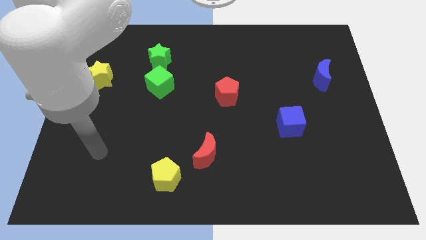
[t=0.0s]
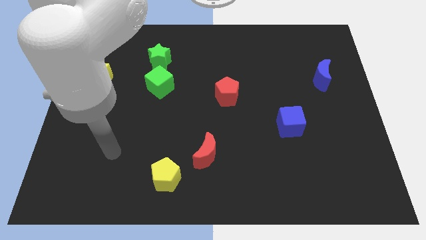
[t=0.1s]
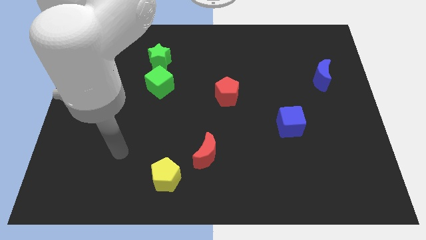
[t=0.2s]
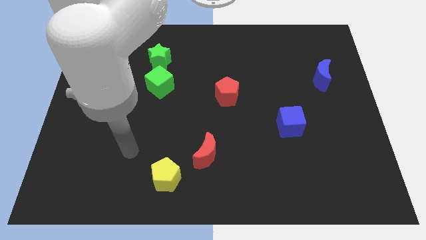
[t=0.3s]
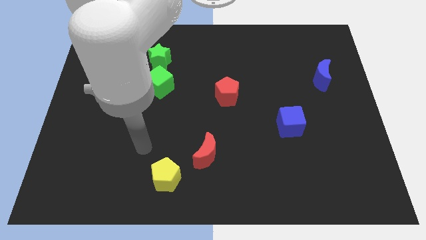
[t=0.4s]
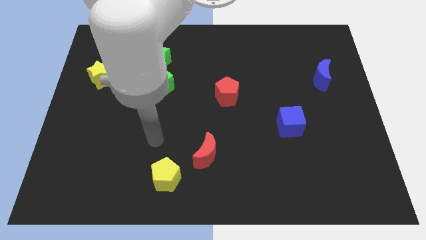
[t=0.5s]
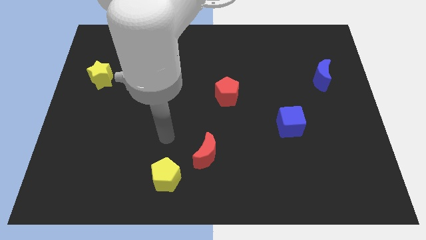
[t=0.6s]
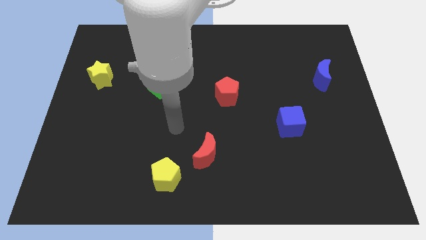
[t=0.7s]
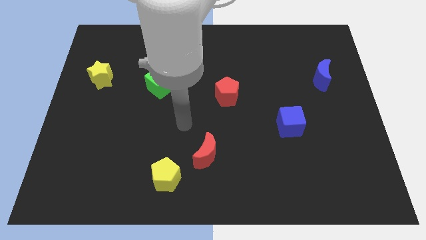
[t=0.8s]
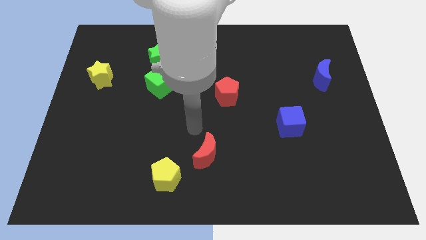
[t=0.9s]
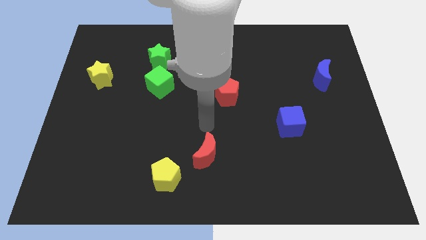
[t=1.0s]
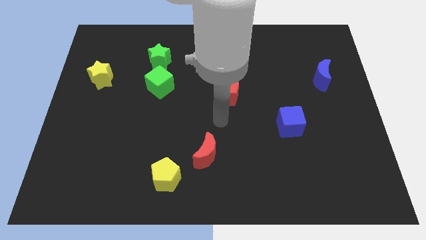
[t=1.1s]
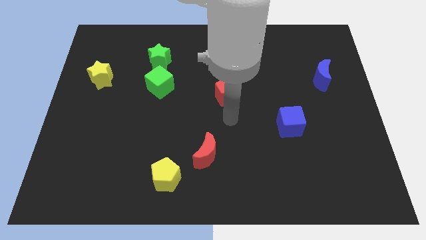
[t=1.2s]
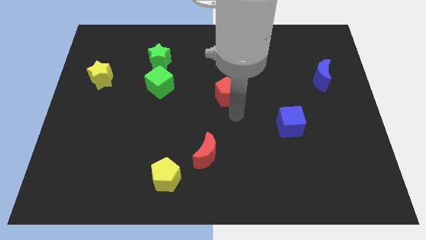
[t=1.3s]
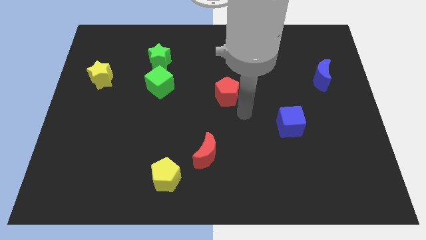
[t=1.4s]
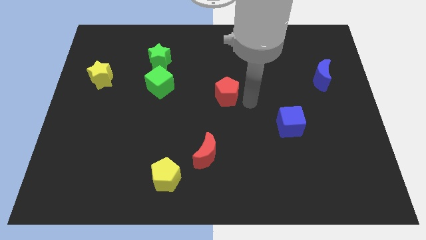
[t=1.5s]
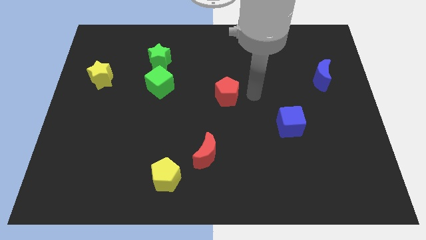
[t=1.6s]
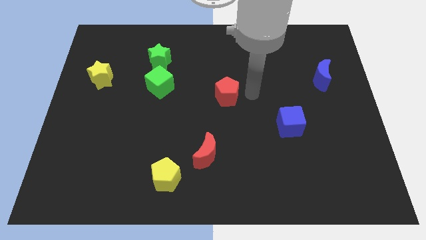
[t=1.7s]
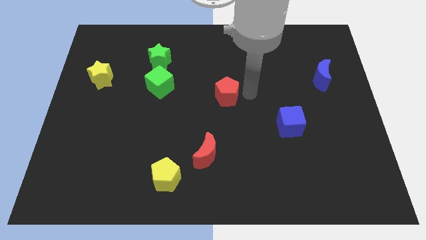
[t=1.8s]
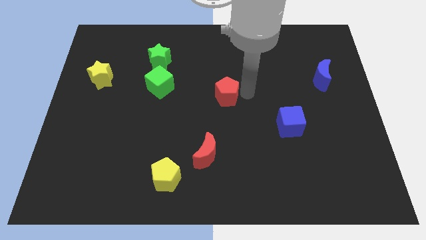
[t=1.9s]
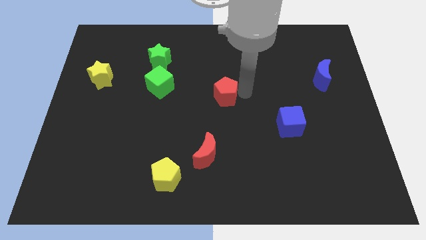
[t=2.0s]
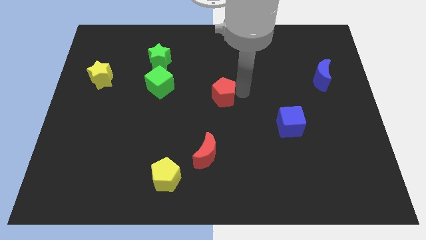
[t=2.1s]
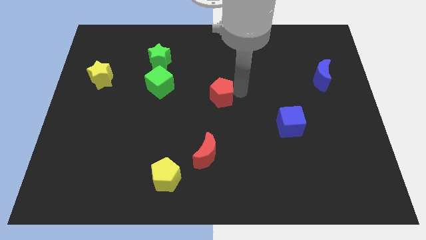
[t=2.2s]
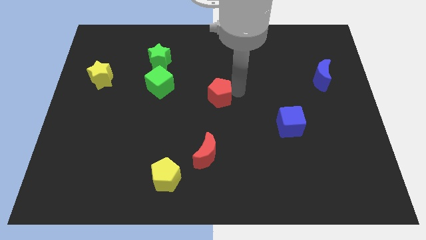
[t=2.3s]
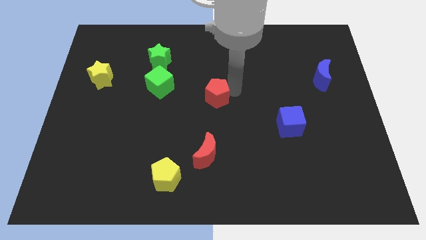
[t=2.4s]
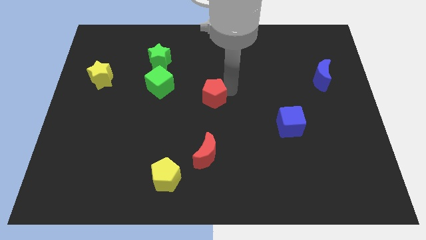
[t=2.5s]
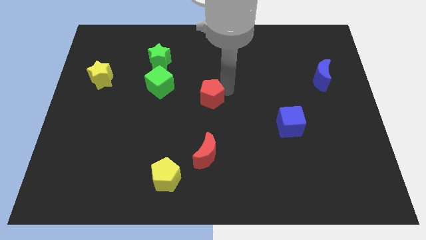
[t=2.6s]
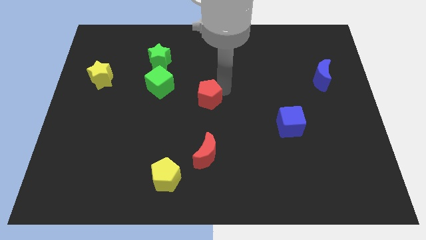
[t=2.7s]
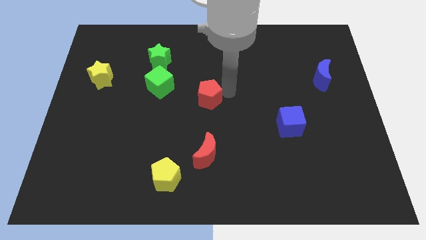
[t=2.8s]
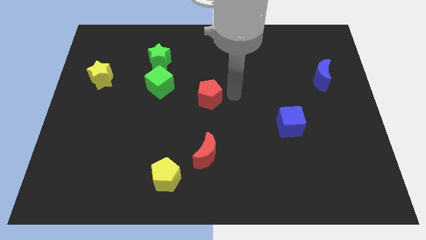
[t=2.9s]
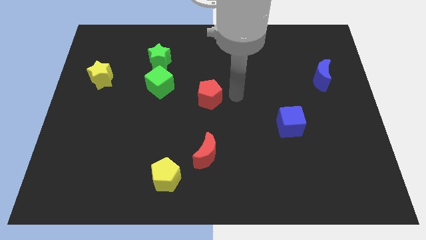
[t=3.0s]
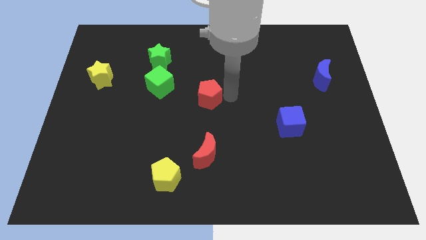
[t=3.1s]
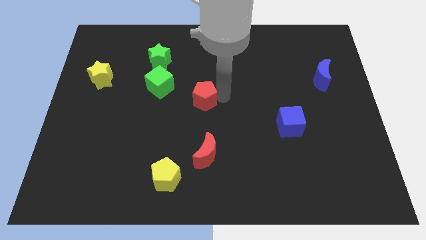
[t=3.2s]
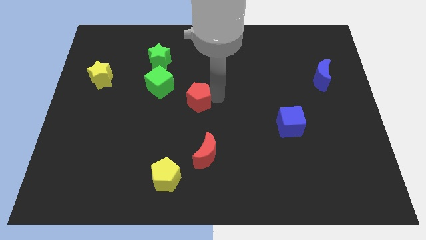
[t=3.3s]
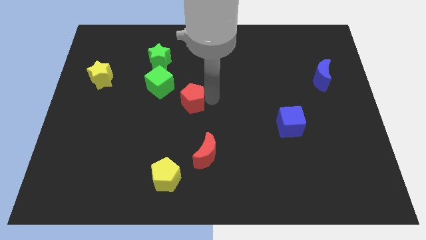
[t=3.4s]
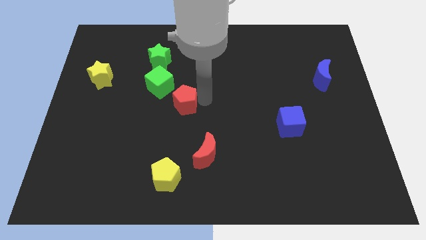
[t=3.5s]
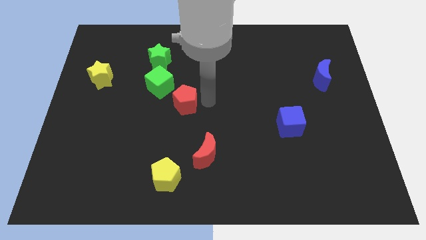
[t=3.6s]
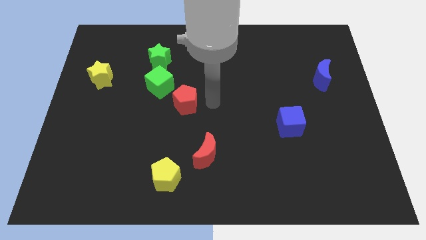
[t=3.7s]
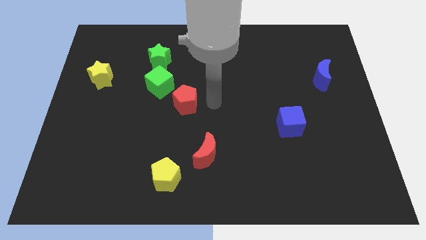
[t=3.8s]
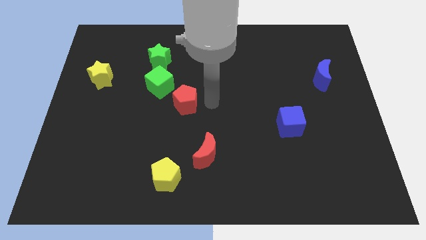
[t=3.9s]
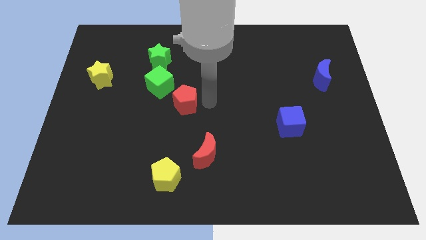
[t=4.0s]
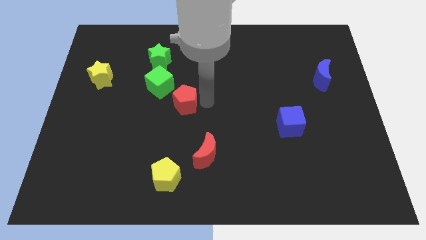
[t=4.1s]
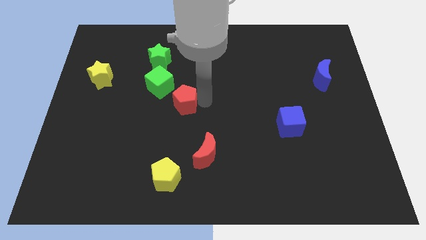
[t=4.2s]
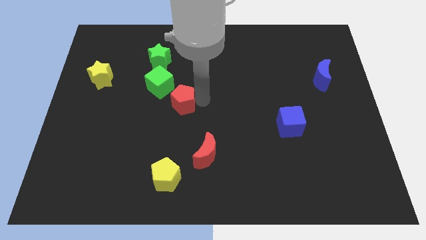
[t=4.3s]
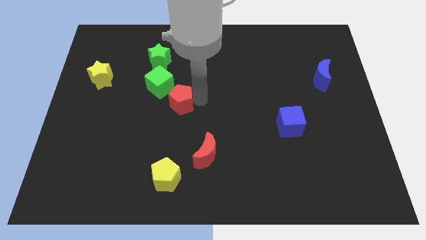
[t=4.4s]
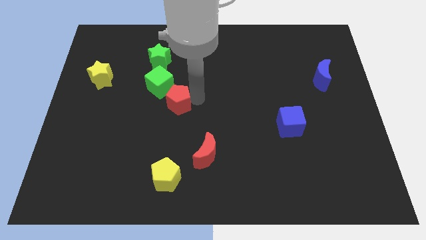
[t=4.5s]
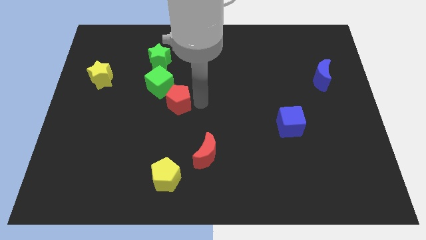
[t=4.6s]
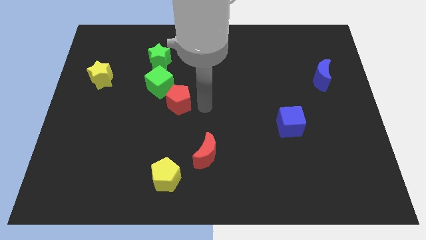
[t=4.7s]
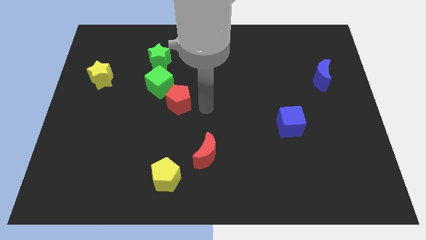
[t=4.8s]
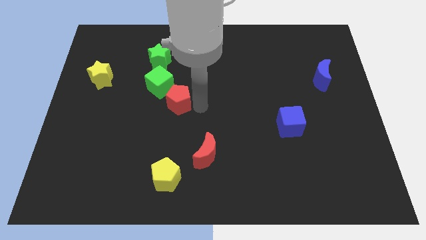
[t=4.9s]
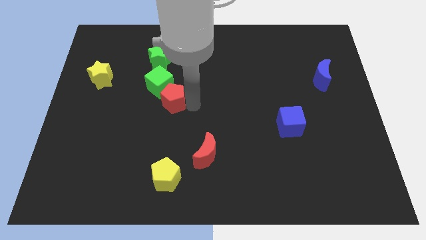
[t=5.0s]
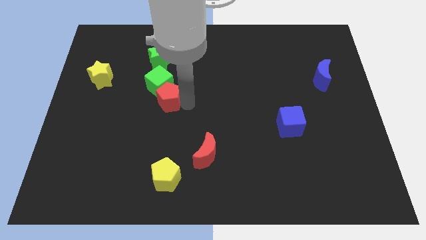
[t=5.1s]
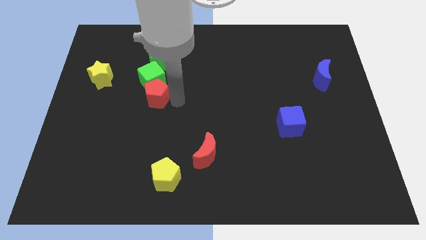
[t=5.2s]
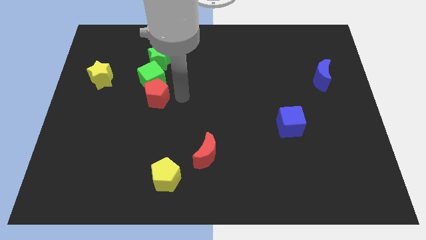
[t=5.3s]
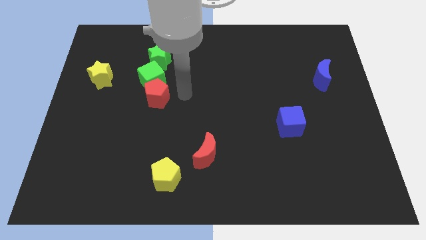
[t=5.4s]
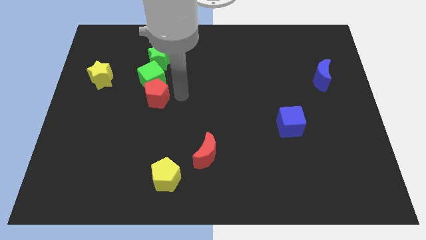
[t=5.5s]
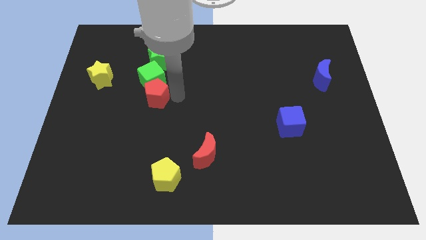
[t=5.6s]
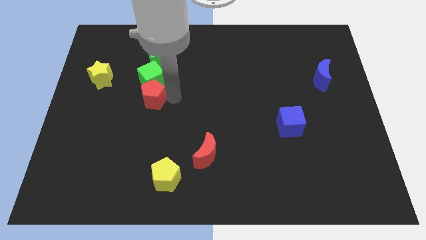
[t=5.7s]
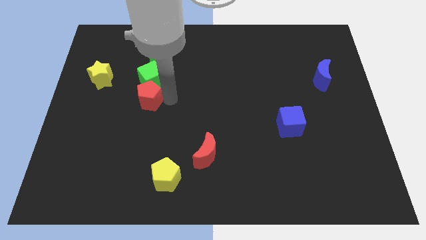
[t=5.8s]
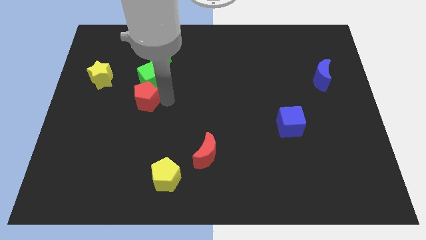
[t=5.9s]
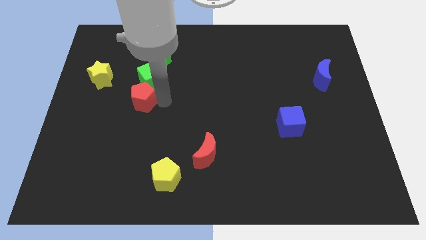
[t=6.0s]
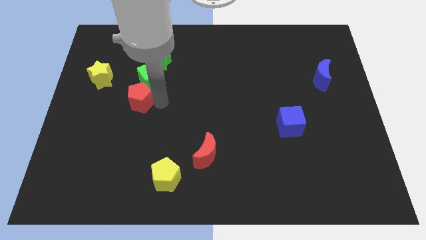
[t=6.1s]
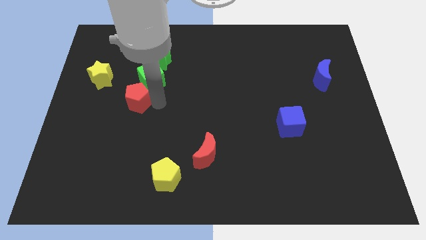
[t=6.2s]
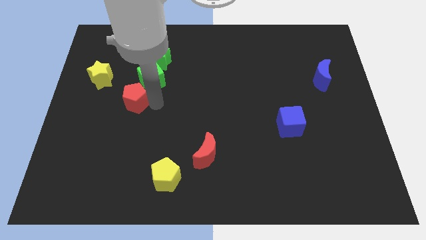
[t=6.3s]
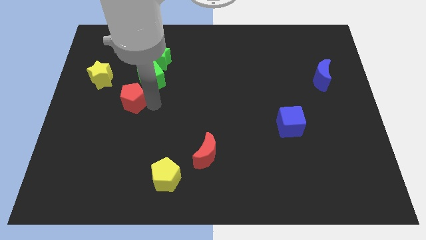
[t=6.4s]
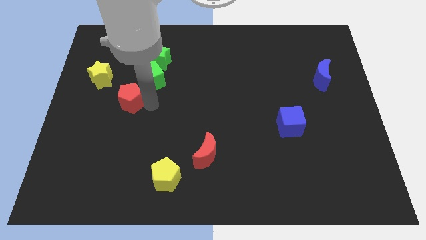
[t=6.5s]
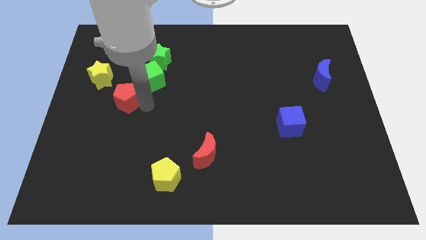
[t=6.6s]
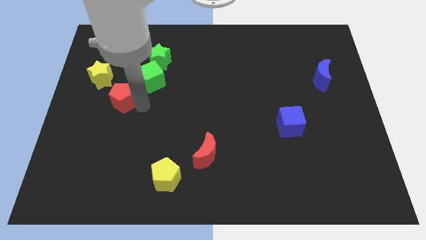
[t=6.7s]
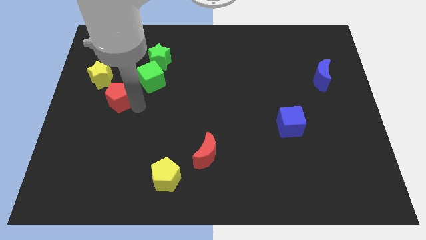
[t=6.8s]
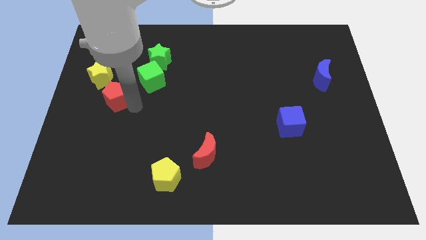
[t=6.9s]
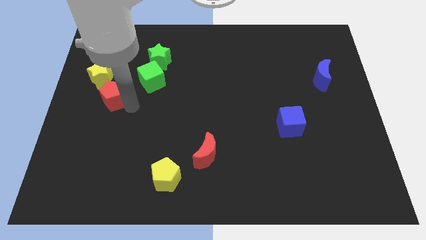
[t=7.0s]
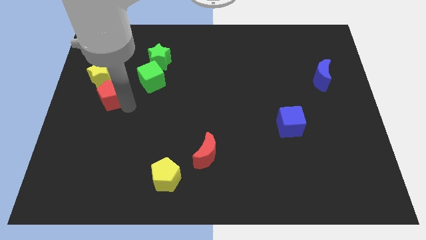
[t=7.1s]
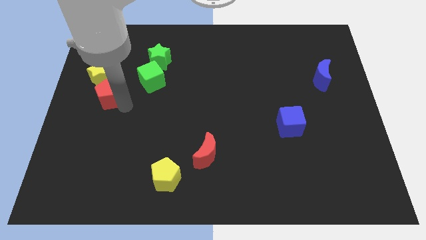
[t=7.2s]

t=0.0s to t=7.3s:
slide the red pentagon to the left side
